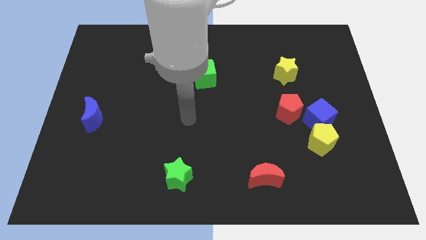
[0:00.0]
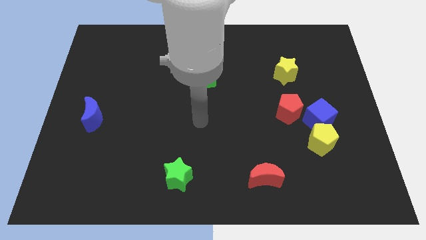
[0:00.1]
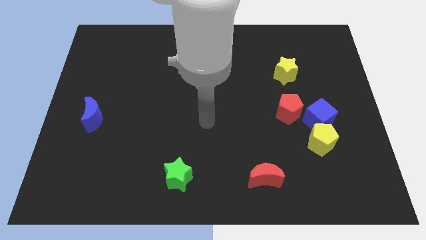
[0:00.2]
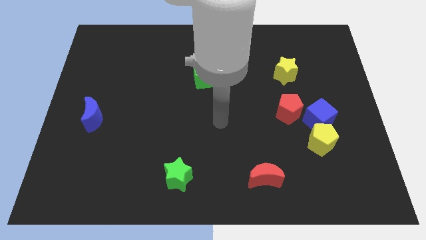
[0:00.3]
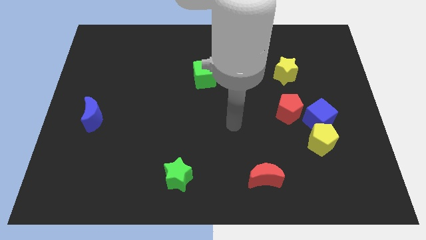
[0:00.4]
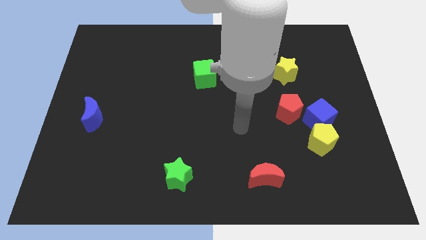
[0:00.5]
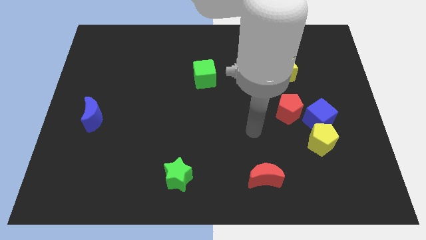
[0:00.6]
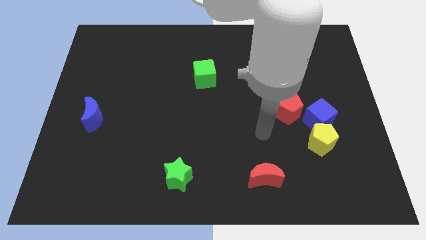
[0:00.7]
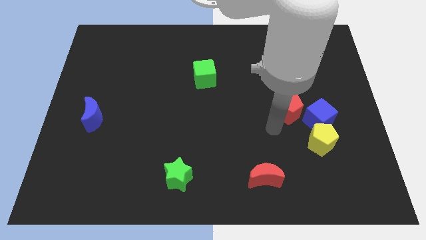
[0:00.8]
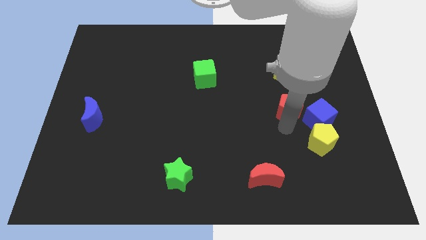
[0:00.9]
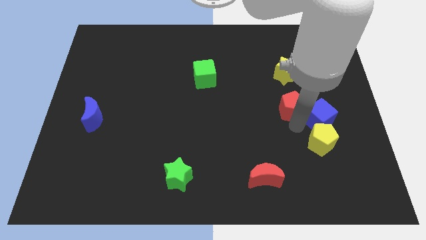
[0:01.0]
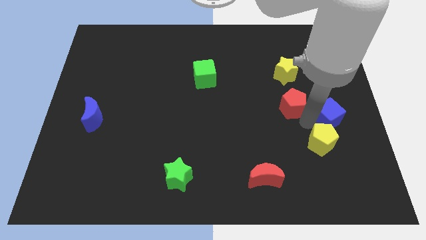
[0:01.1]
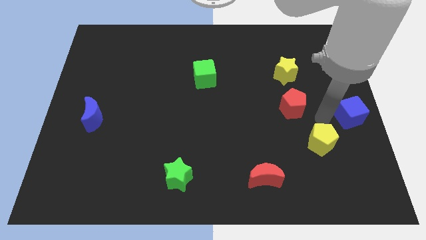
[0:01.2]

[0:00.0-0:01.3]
move the yellow pentagon away from the blue cube

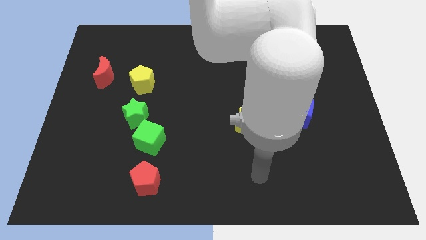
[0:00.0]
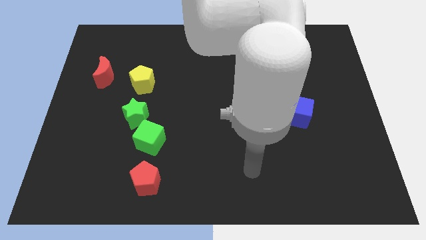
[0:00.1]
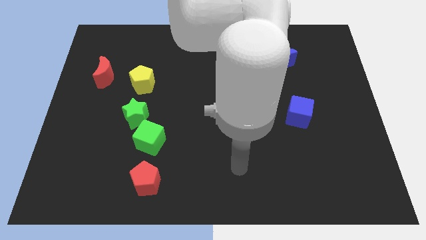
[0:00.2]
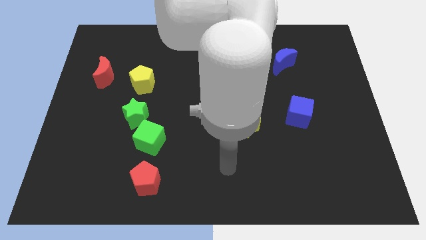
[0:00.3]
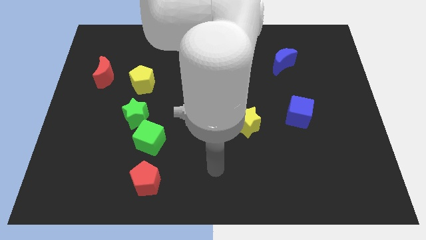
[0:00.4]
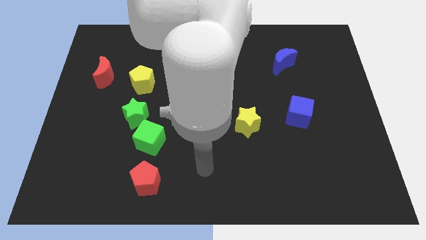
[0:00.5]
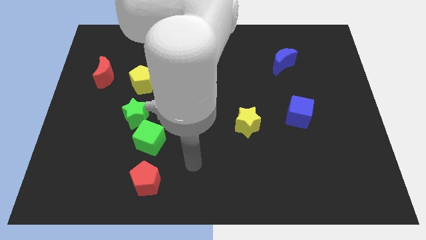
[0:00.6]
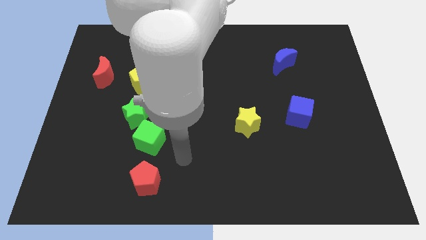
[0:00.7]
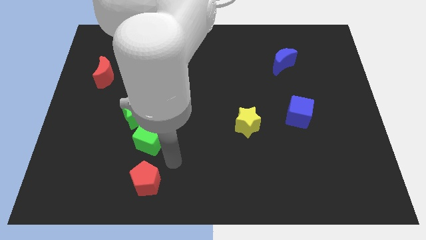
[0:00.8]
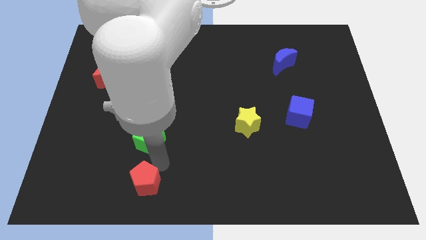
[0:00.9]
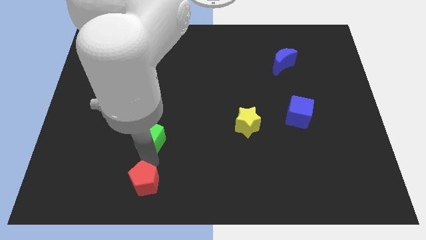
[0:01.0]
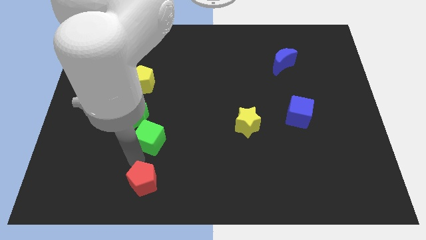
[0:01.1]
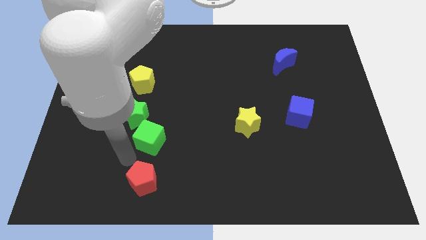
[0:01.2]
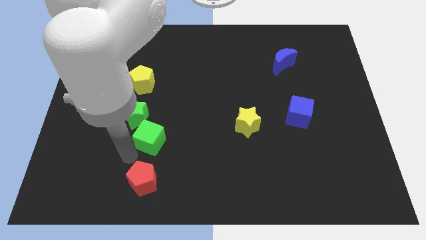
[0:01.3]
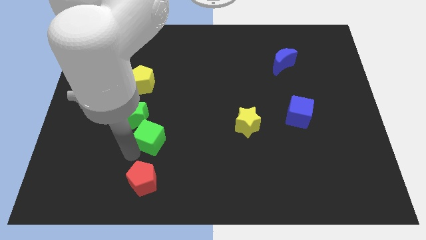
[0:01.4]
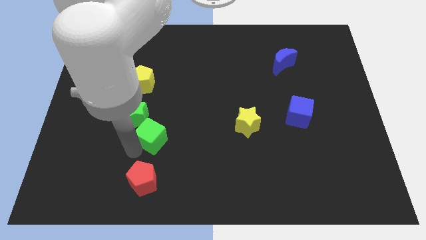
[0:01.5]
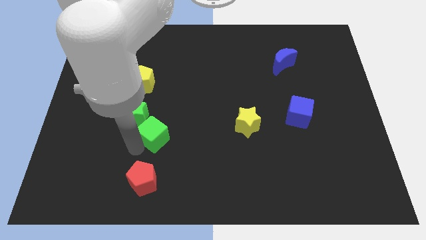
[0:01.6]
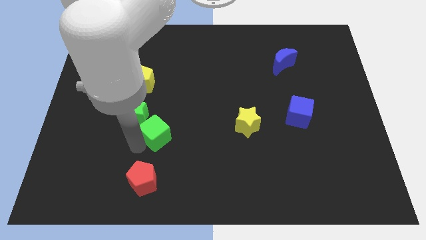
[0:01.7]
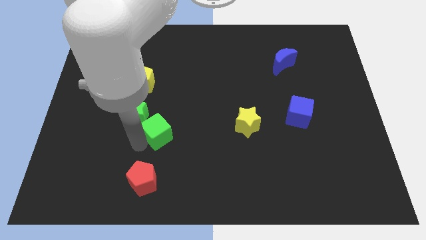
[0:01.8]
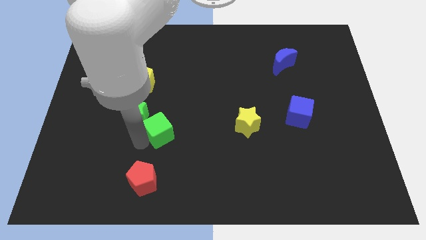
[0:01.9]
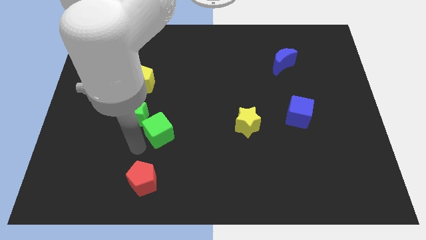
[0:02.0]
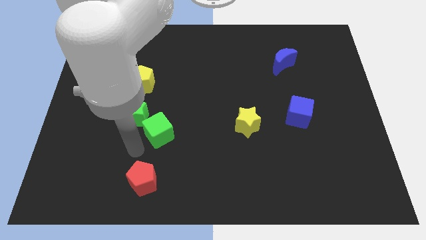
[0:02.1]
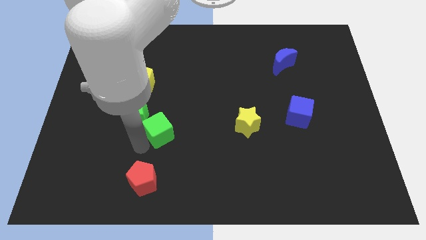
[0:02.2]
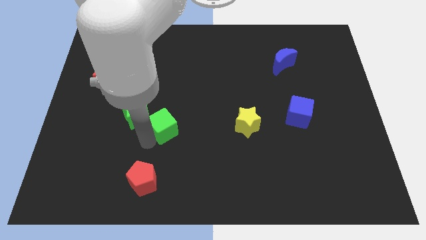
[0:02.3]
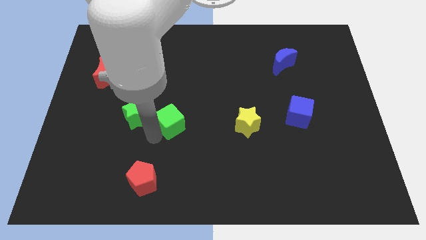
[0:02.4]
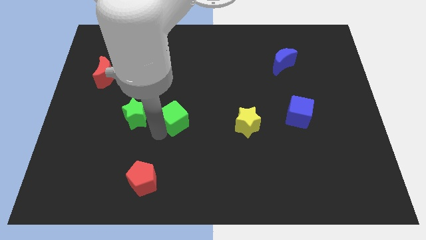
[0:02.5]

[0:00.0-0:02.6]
pull the green cube apart from the green star and red pentagon

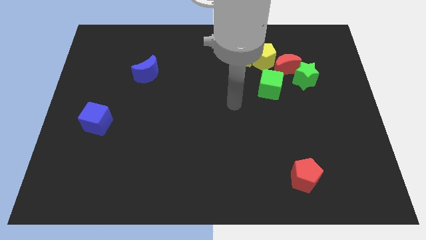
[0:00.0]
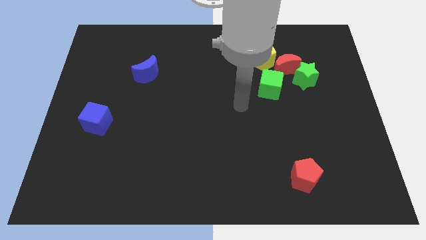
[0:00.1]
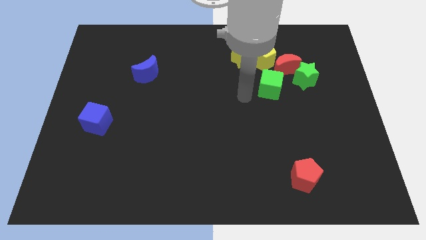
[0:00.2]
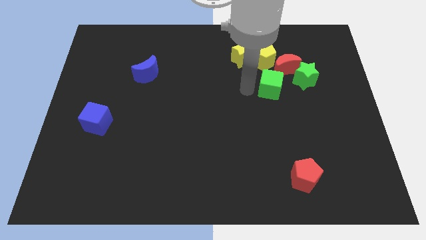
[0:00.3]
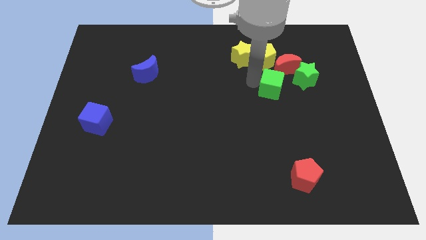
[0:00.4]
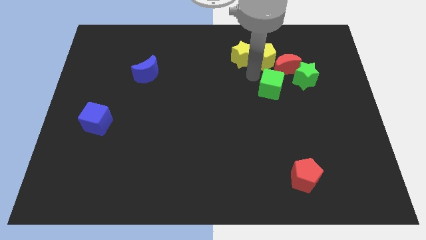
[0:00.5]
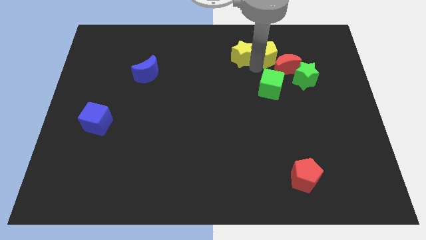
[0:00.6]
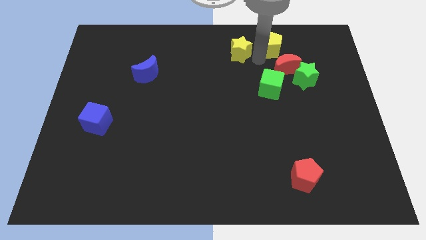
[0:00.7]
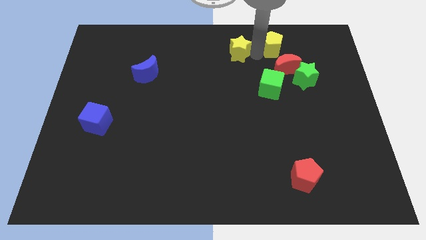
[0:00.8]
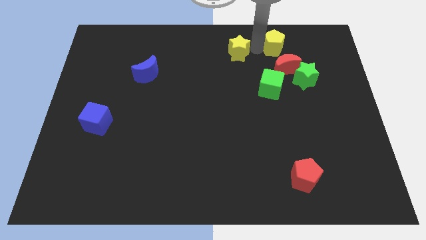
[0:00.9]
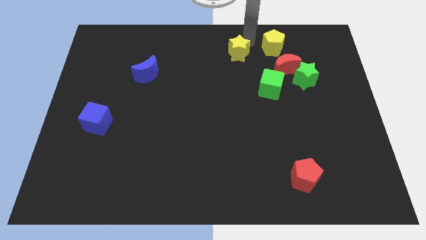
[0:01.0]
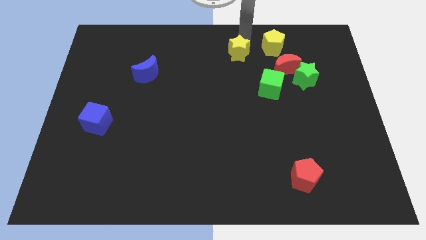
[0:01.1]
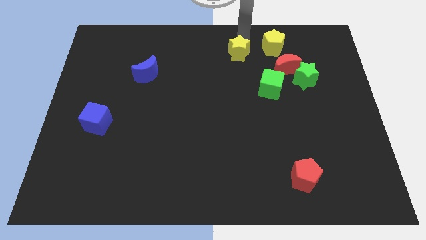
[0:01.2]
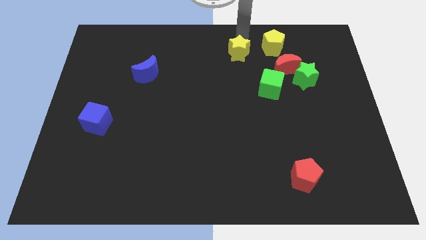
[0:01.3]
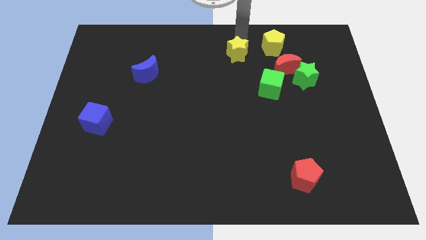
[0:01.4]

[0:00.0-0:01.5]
separate the yellow star from the yellow pentagon

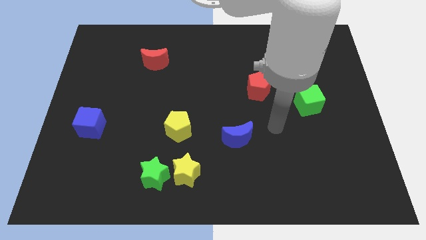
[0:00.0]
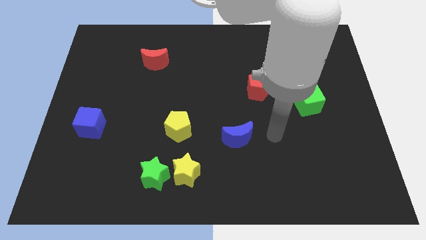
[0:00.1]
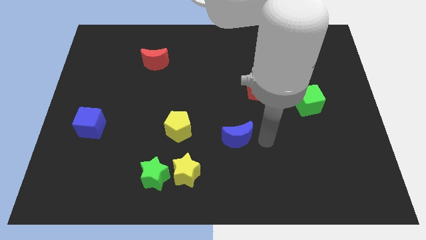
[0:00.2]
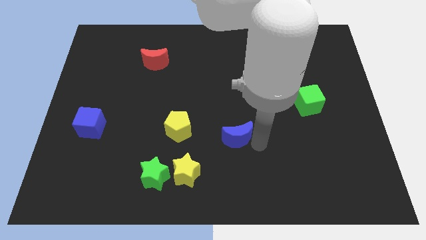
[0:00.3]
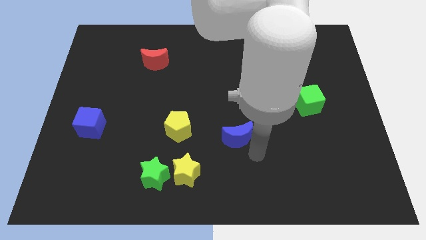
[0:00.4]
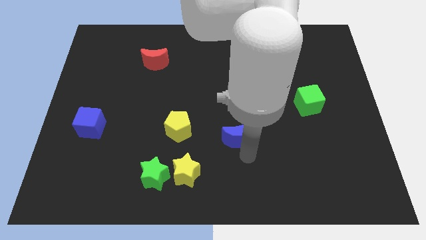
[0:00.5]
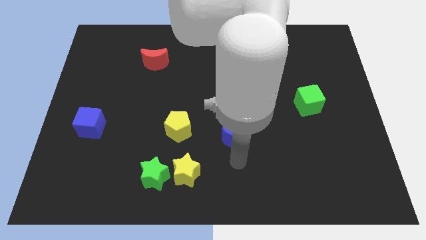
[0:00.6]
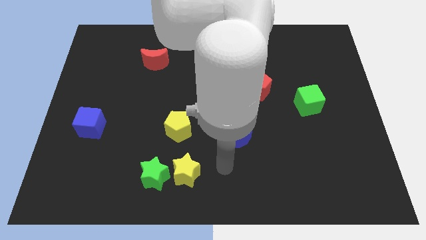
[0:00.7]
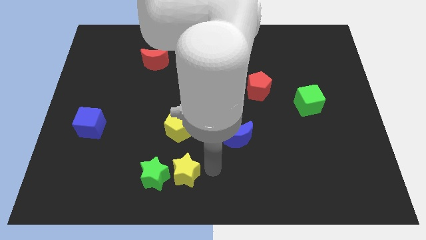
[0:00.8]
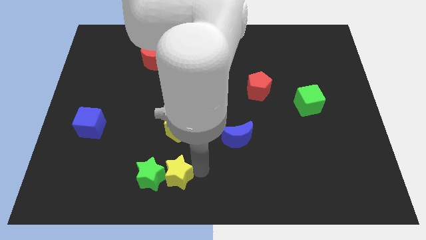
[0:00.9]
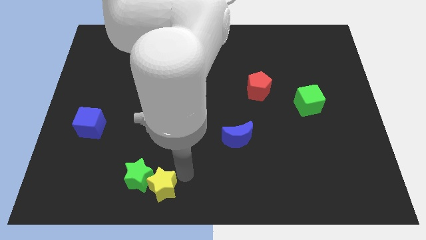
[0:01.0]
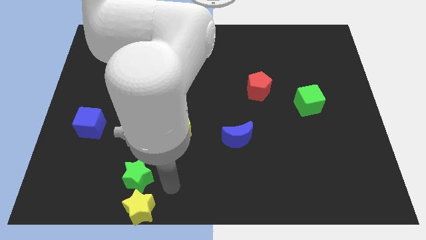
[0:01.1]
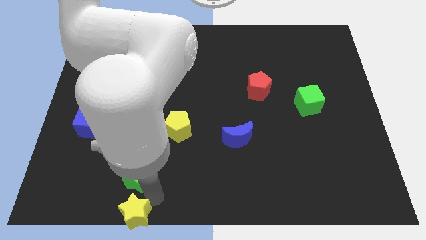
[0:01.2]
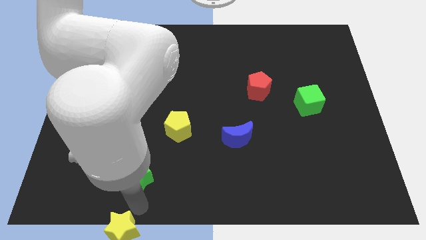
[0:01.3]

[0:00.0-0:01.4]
pull the green star apart from the yellow star

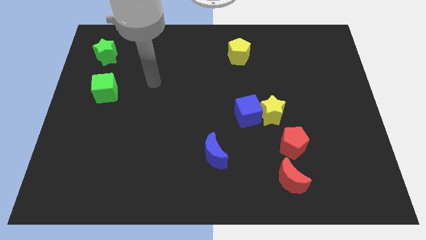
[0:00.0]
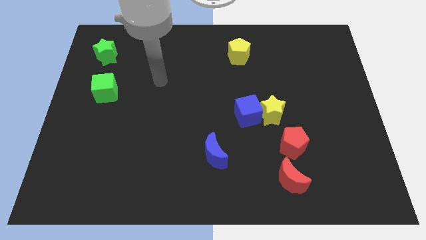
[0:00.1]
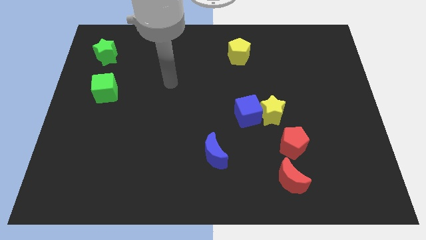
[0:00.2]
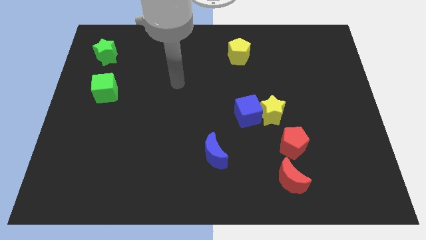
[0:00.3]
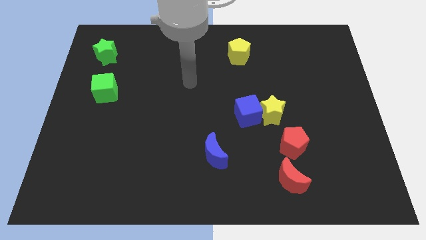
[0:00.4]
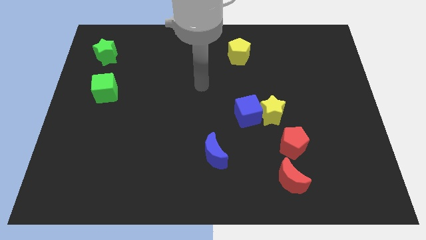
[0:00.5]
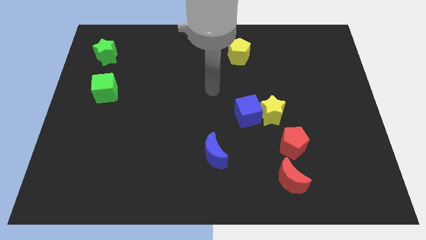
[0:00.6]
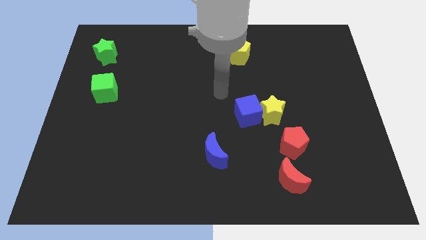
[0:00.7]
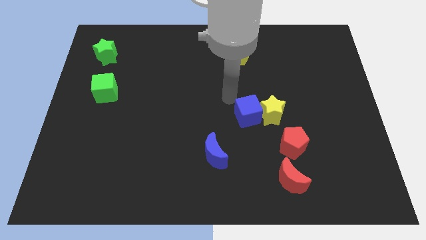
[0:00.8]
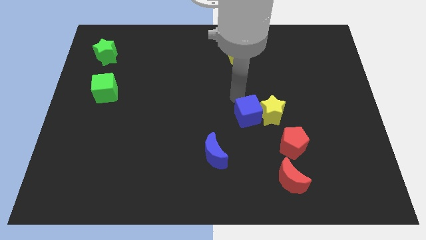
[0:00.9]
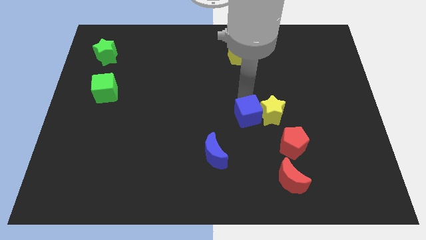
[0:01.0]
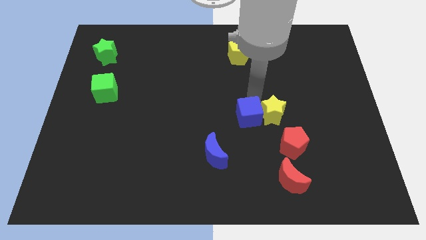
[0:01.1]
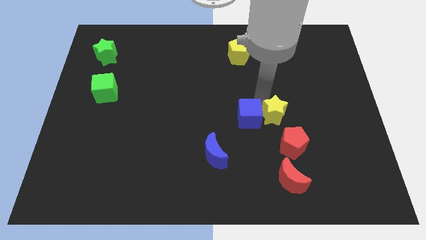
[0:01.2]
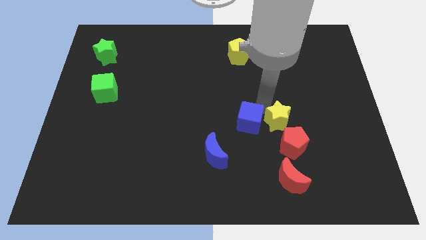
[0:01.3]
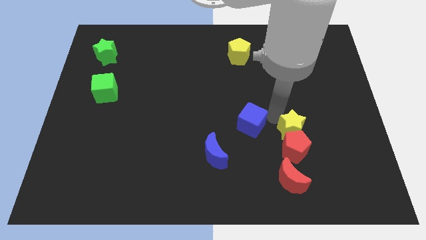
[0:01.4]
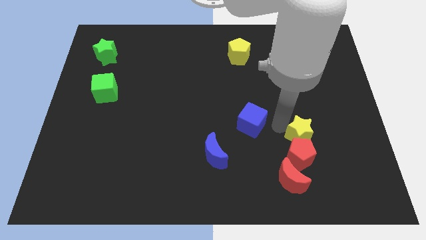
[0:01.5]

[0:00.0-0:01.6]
pull the blue cube apart from the yellow star

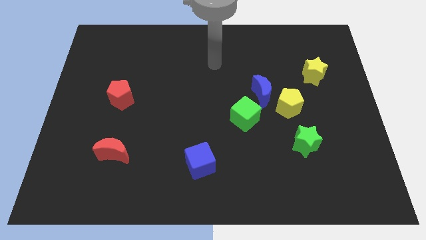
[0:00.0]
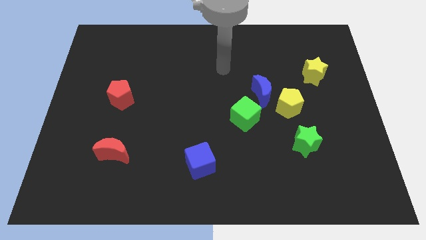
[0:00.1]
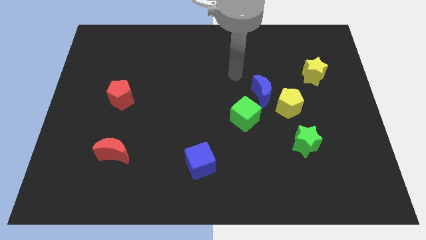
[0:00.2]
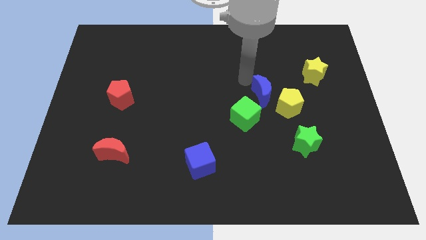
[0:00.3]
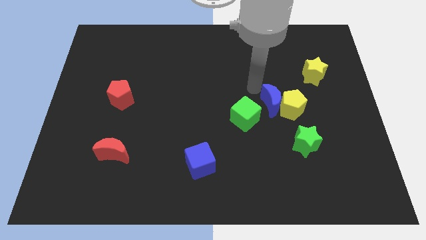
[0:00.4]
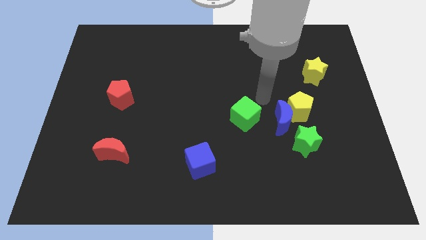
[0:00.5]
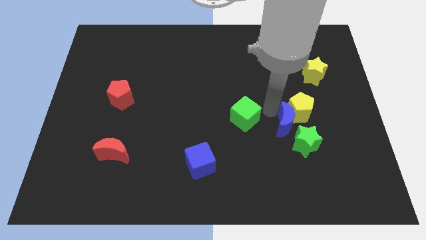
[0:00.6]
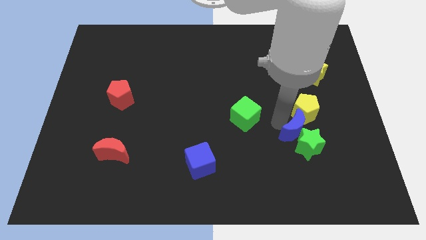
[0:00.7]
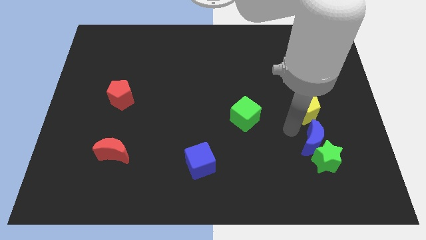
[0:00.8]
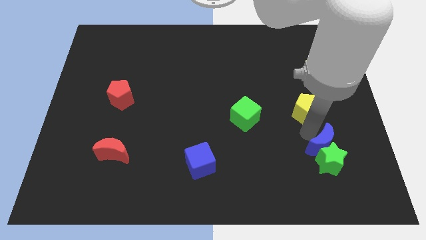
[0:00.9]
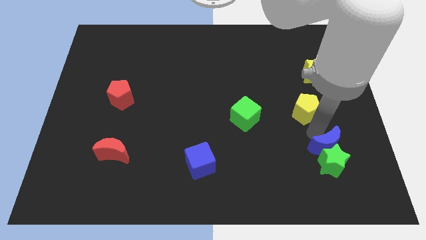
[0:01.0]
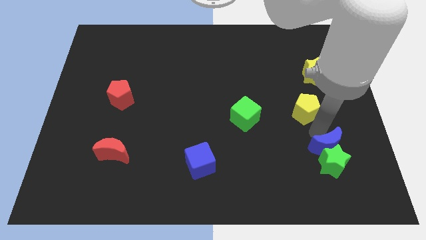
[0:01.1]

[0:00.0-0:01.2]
separate the yellow pentagon from the blue moon
